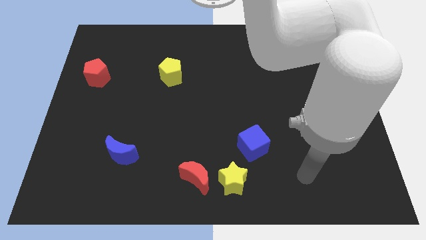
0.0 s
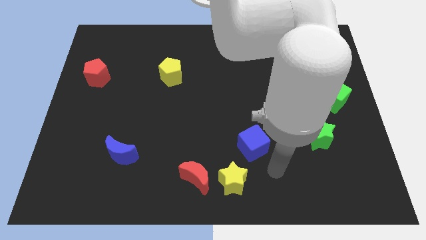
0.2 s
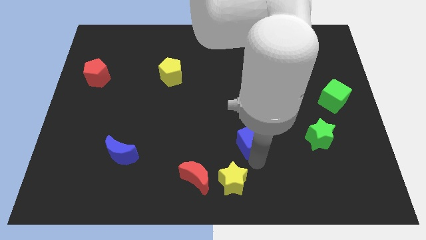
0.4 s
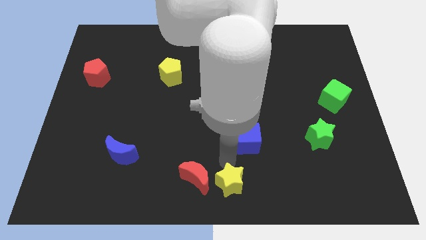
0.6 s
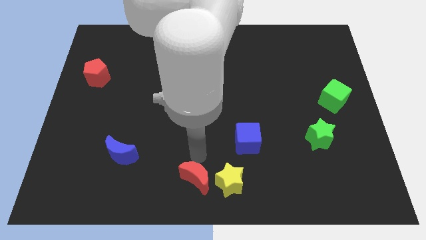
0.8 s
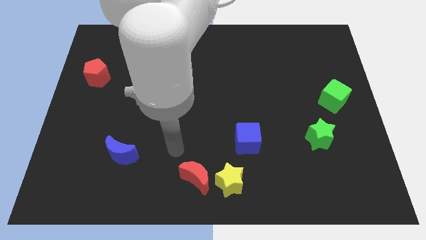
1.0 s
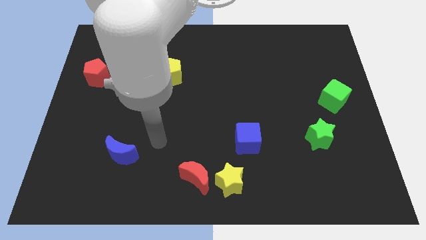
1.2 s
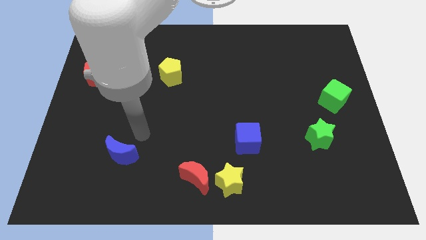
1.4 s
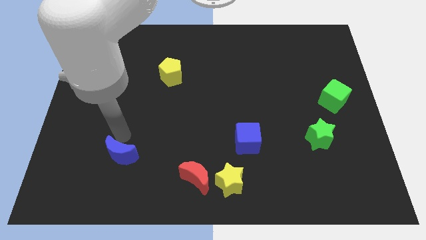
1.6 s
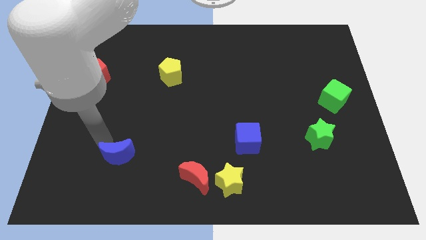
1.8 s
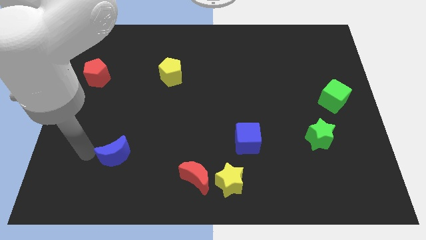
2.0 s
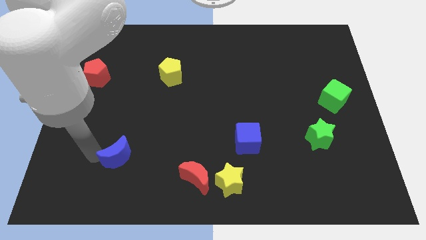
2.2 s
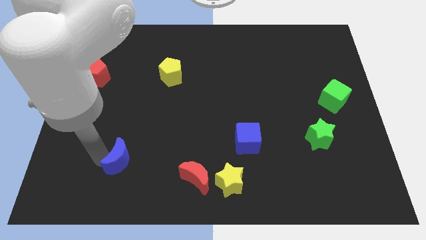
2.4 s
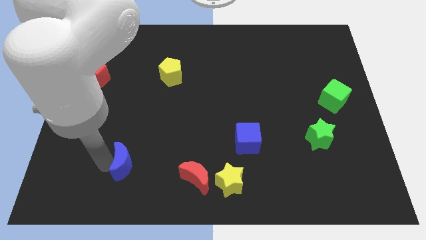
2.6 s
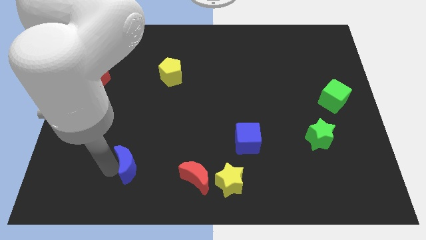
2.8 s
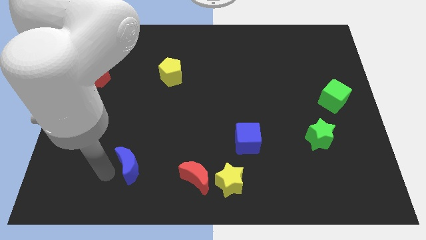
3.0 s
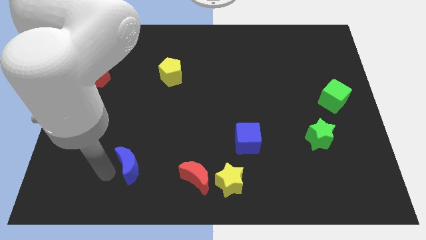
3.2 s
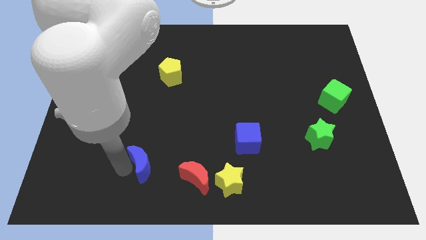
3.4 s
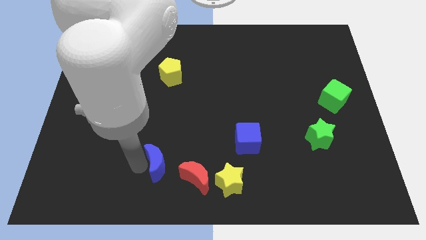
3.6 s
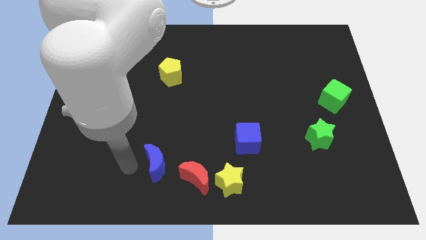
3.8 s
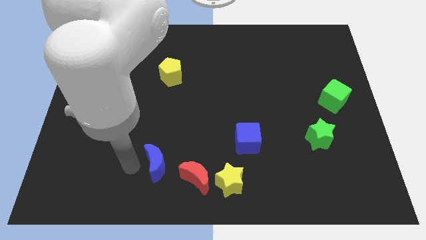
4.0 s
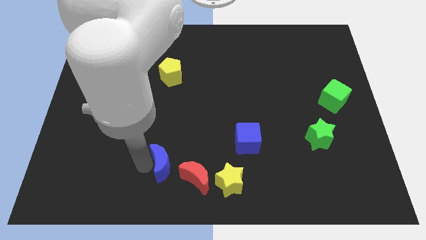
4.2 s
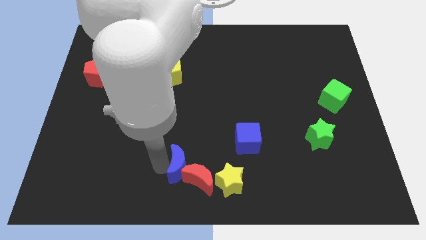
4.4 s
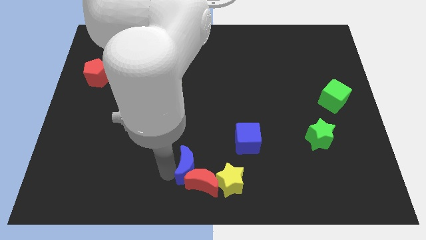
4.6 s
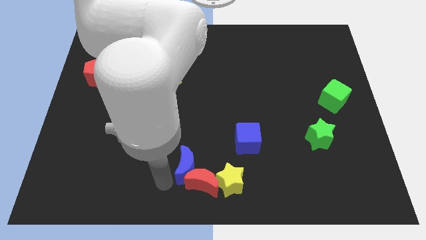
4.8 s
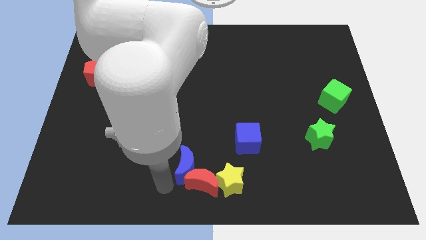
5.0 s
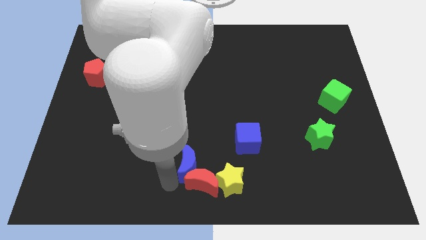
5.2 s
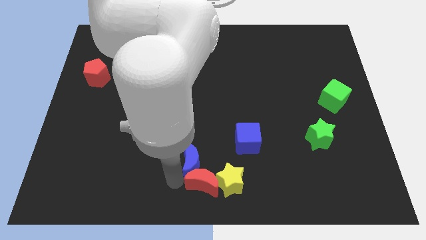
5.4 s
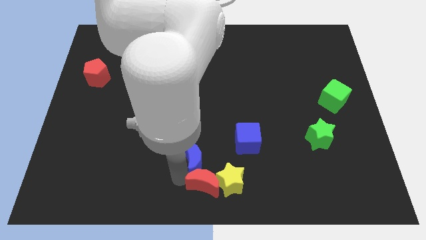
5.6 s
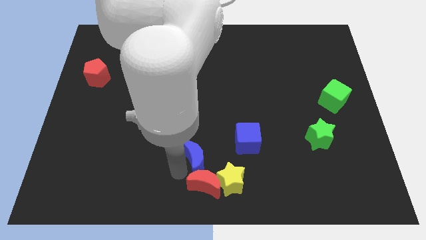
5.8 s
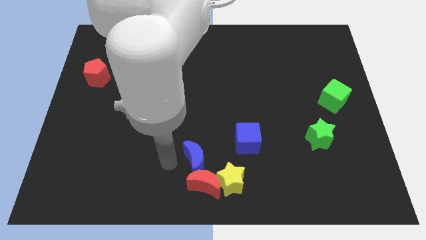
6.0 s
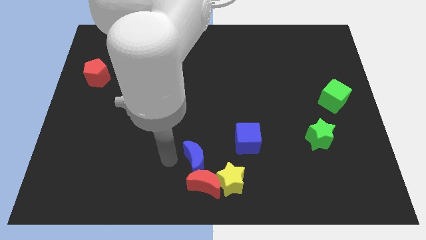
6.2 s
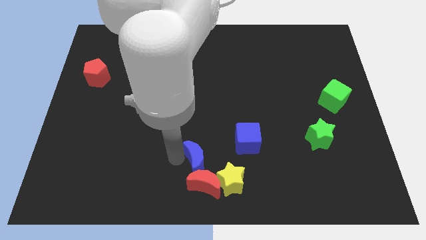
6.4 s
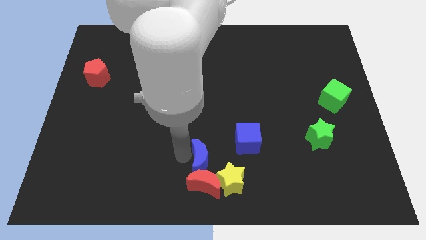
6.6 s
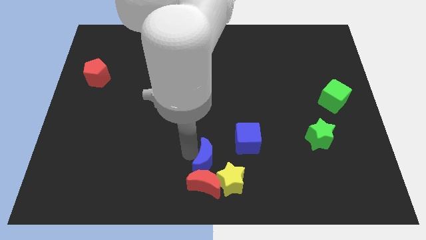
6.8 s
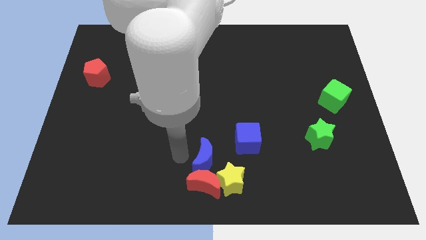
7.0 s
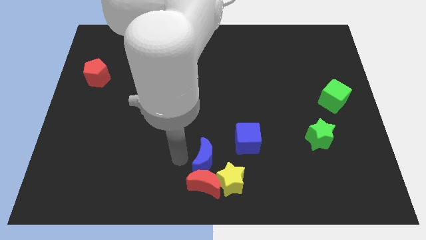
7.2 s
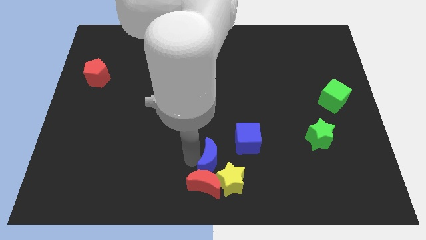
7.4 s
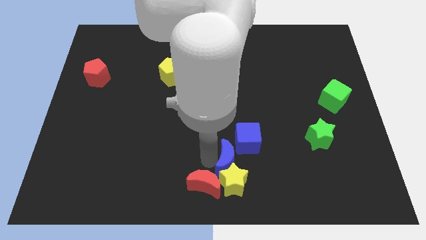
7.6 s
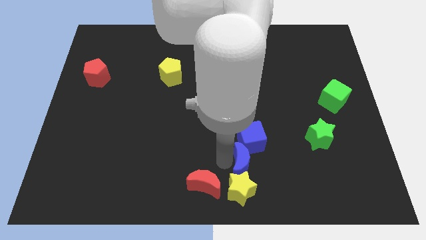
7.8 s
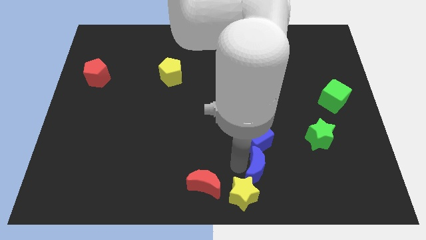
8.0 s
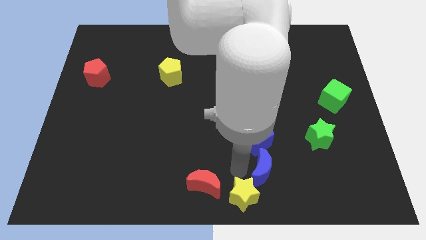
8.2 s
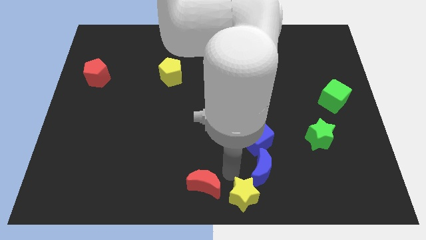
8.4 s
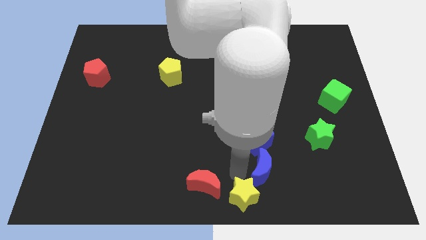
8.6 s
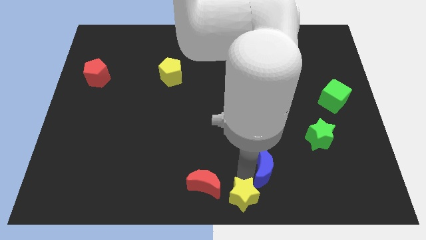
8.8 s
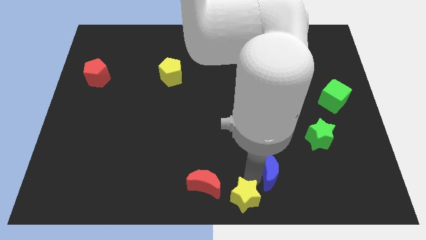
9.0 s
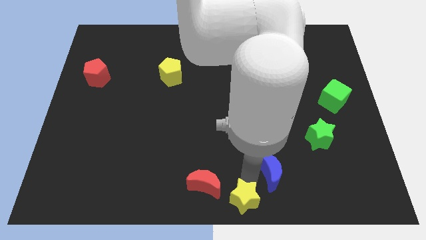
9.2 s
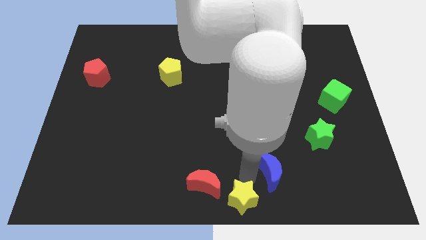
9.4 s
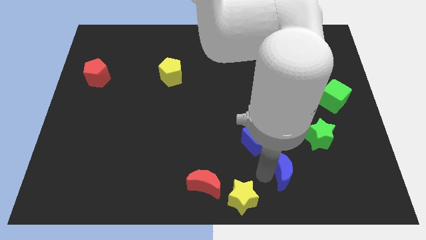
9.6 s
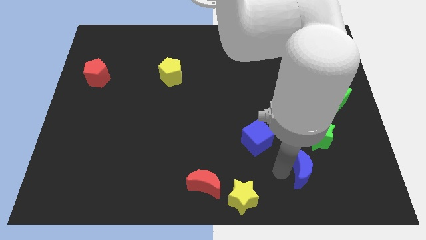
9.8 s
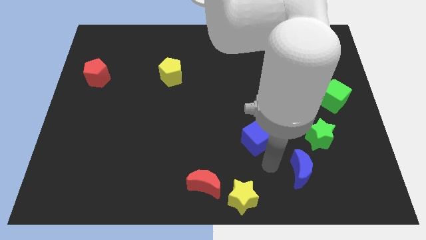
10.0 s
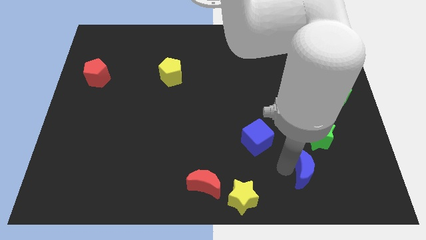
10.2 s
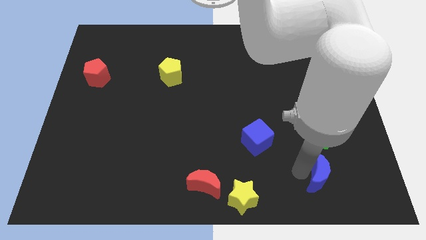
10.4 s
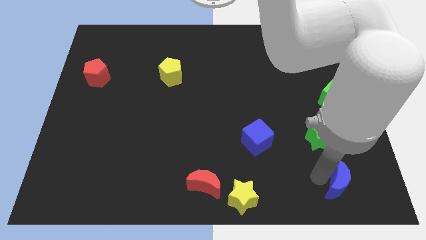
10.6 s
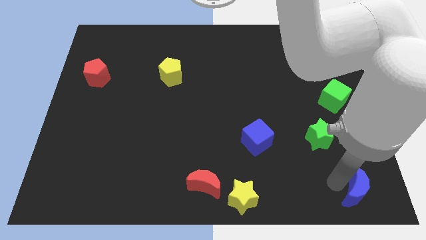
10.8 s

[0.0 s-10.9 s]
slide the blue moon to the lower right corner
